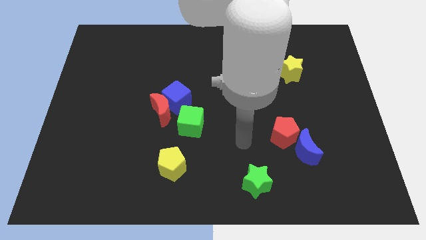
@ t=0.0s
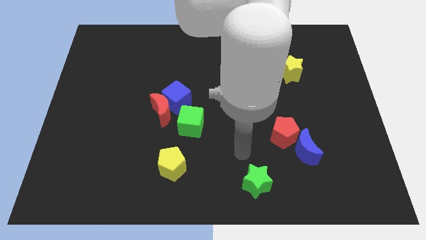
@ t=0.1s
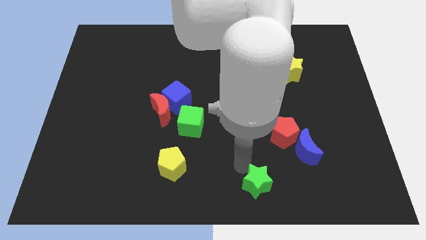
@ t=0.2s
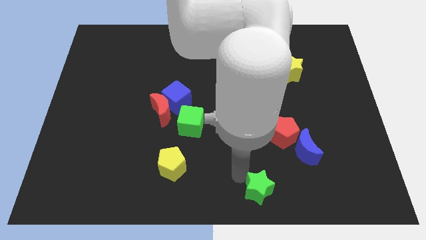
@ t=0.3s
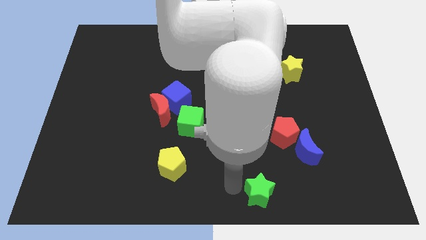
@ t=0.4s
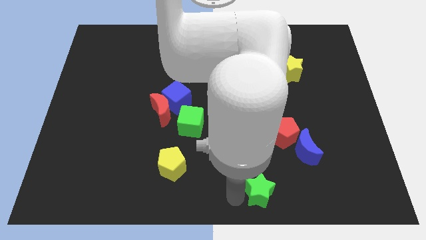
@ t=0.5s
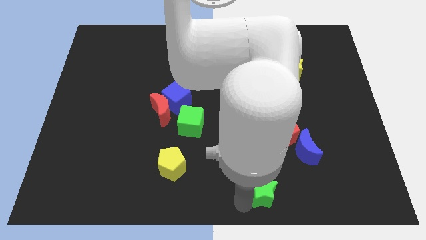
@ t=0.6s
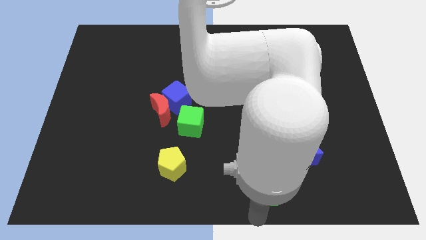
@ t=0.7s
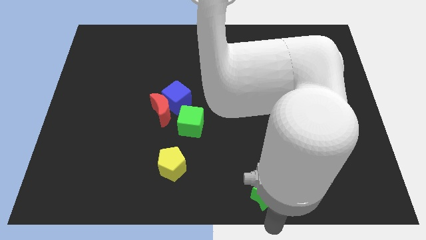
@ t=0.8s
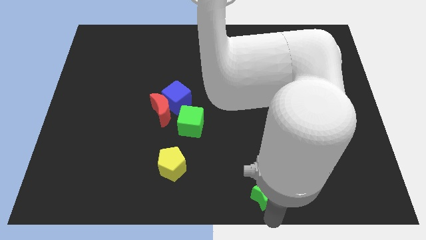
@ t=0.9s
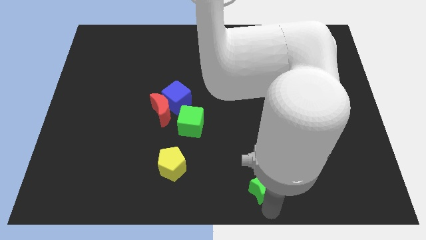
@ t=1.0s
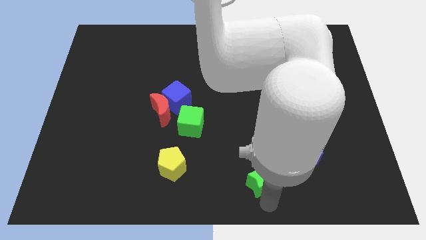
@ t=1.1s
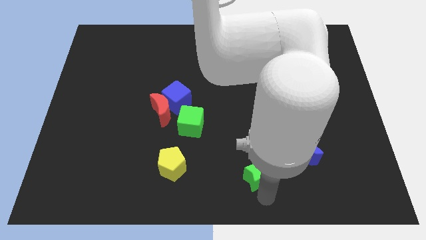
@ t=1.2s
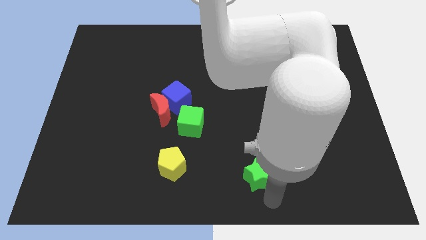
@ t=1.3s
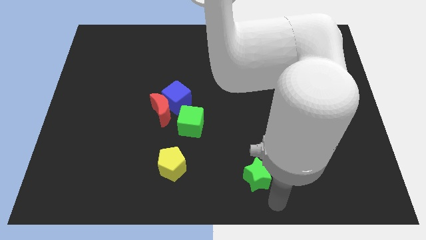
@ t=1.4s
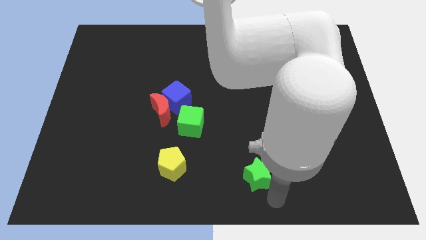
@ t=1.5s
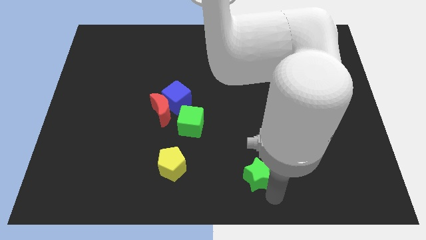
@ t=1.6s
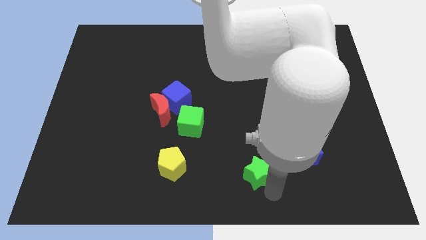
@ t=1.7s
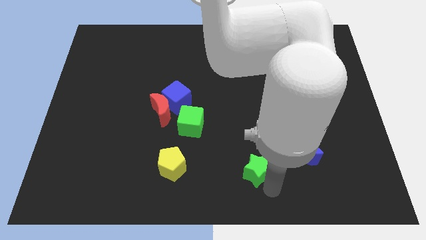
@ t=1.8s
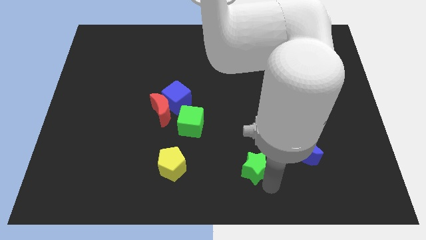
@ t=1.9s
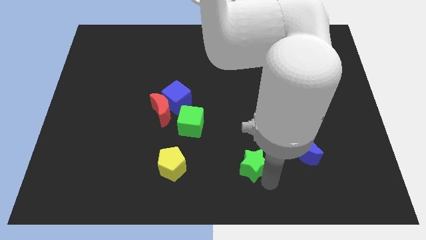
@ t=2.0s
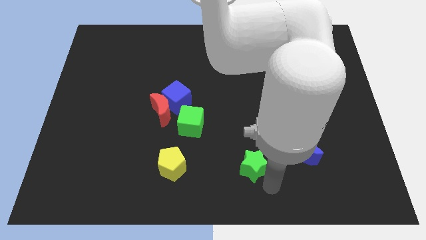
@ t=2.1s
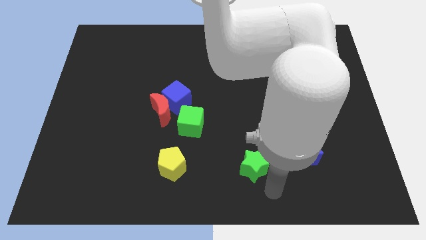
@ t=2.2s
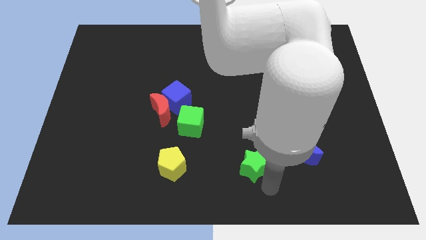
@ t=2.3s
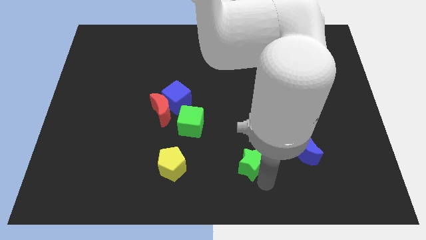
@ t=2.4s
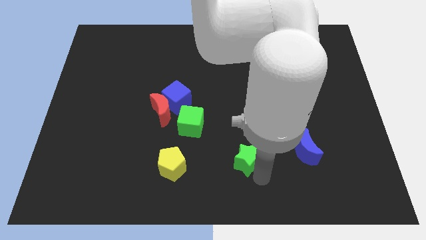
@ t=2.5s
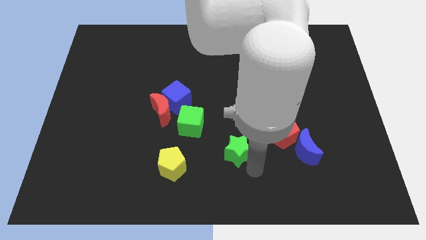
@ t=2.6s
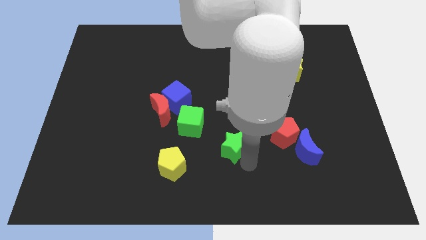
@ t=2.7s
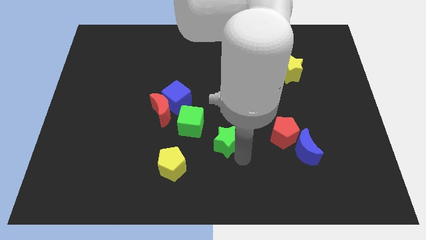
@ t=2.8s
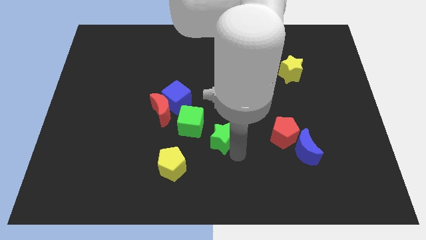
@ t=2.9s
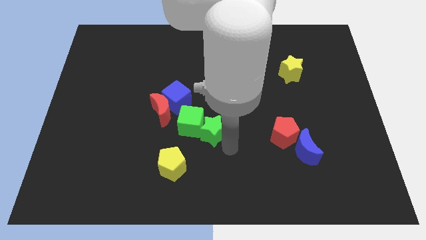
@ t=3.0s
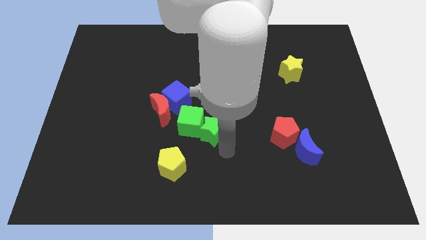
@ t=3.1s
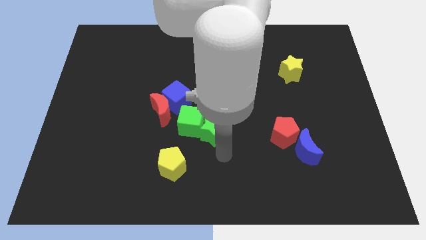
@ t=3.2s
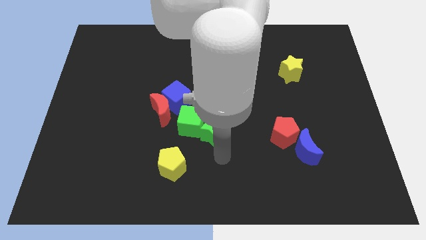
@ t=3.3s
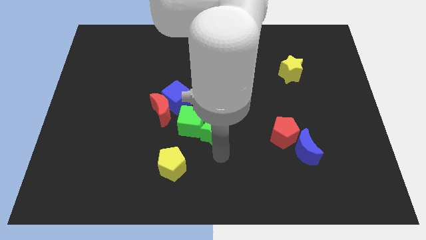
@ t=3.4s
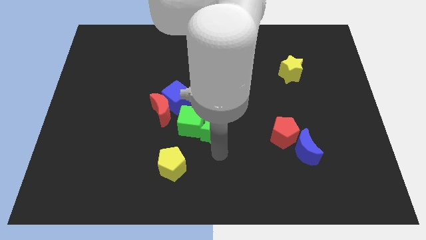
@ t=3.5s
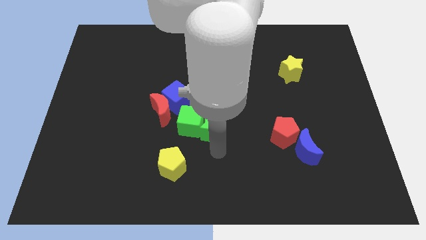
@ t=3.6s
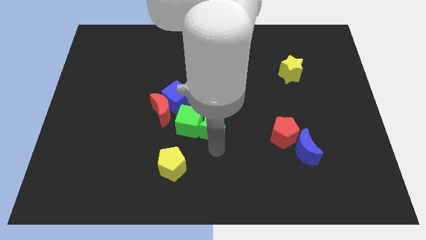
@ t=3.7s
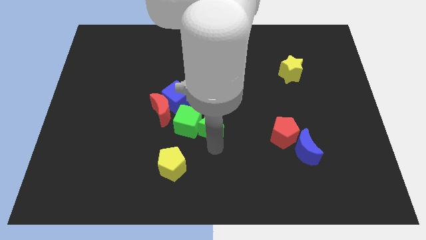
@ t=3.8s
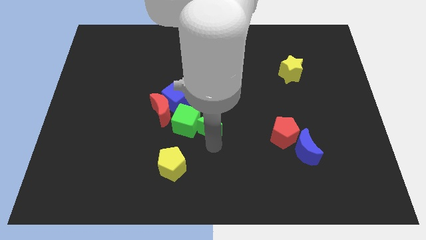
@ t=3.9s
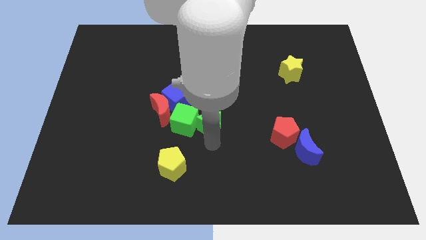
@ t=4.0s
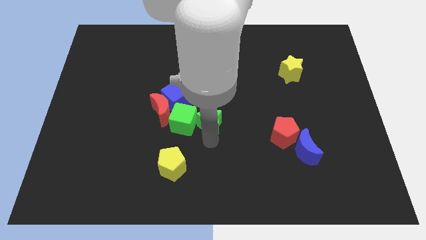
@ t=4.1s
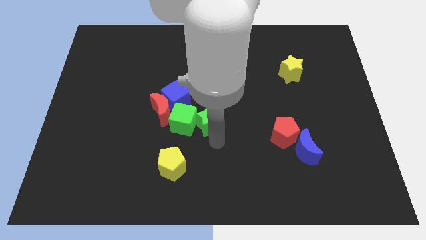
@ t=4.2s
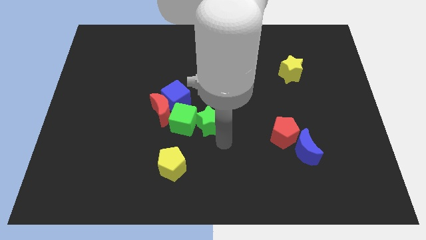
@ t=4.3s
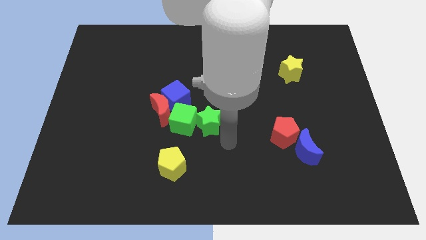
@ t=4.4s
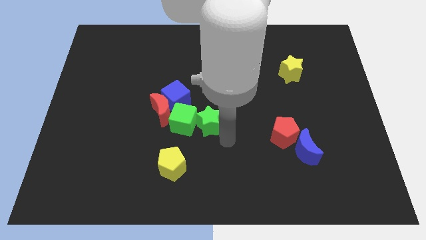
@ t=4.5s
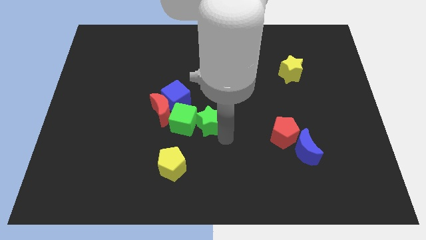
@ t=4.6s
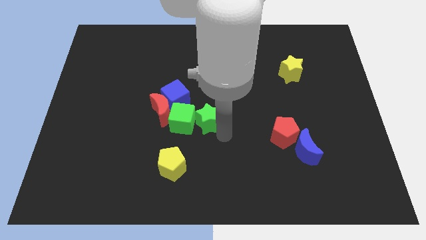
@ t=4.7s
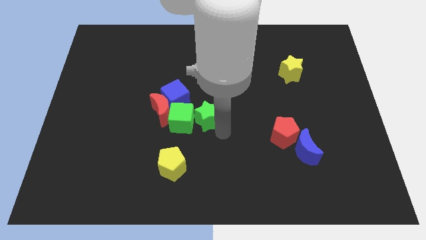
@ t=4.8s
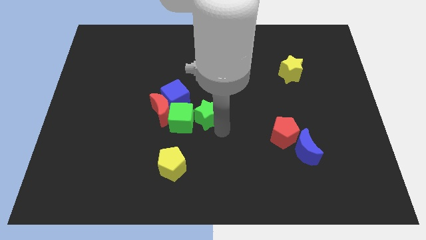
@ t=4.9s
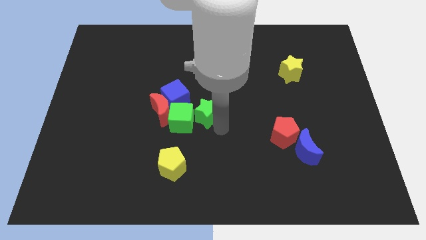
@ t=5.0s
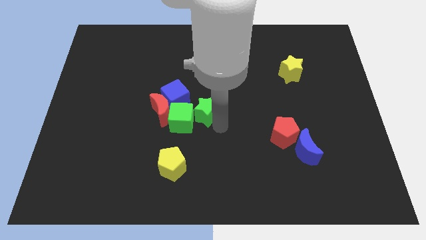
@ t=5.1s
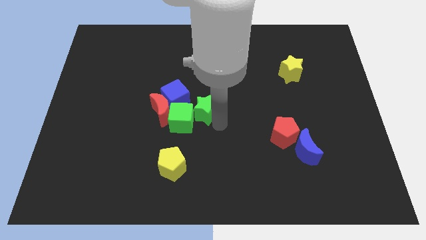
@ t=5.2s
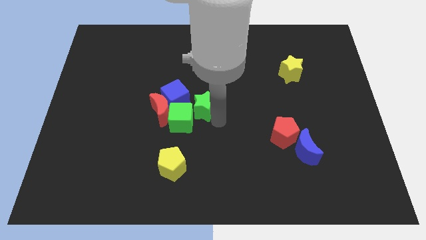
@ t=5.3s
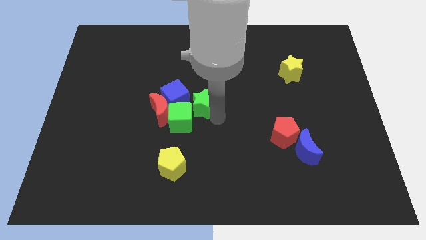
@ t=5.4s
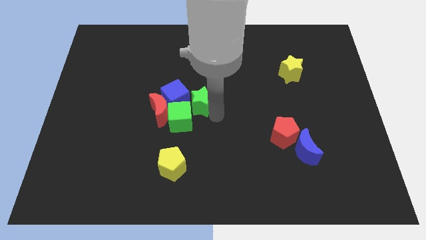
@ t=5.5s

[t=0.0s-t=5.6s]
put the green star towards the blue cube

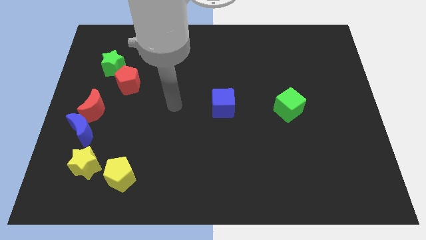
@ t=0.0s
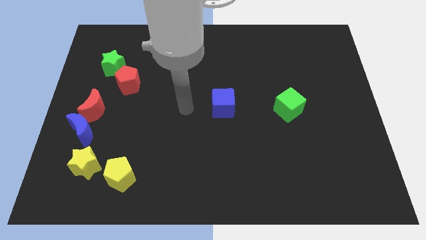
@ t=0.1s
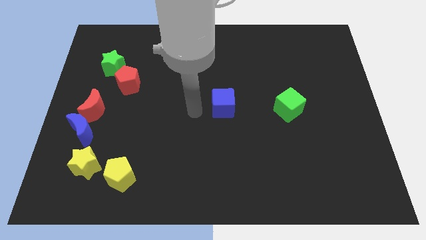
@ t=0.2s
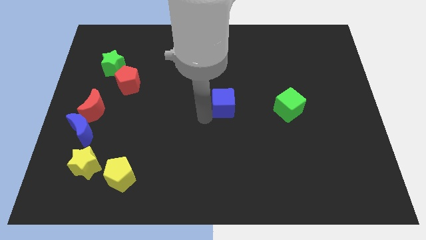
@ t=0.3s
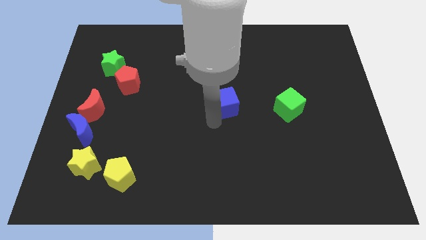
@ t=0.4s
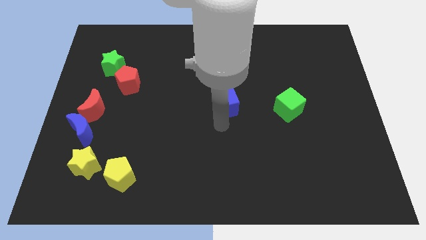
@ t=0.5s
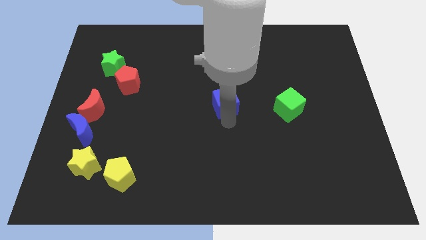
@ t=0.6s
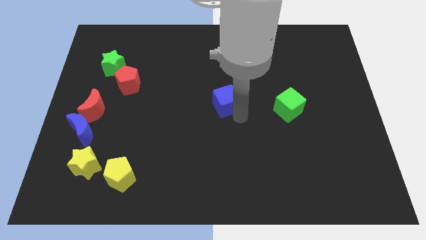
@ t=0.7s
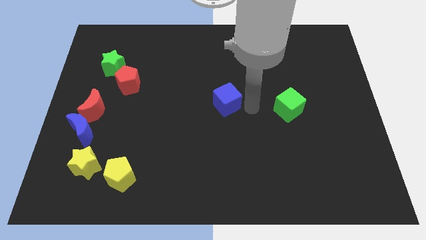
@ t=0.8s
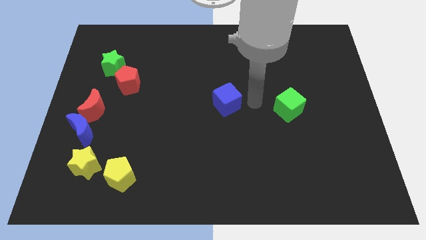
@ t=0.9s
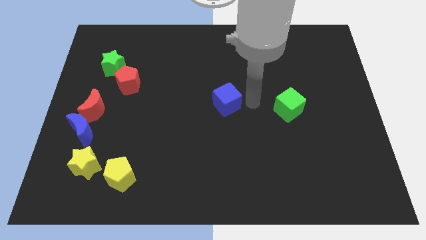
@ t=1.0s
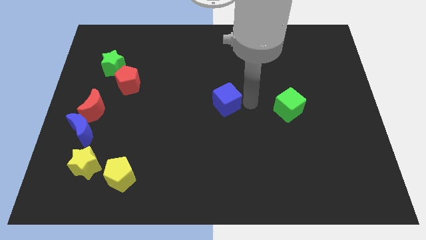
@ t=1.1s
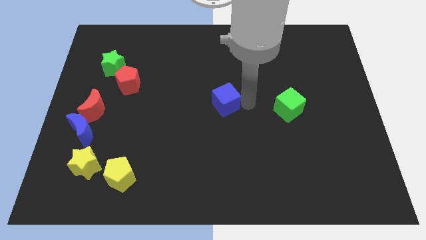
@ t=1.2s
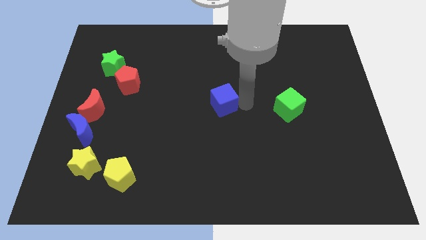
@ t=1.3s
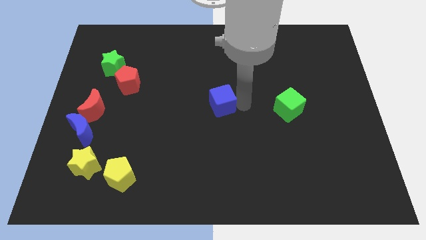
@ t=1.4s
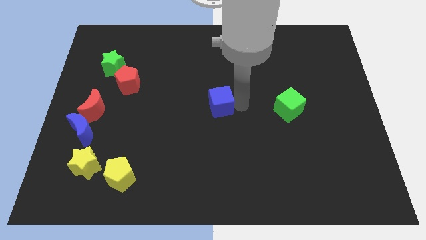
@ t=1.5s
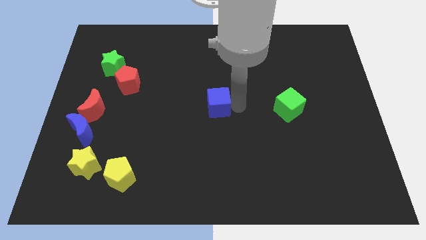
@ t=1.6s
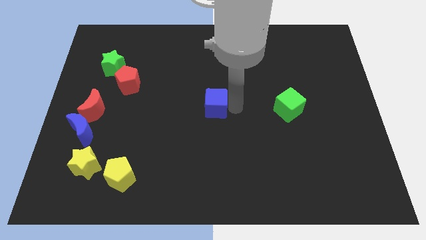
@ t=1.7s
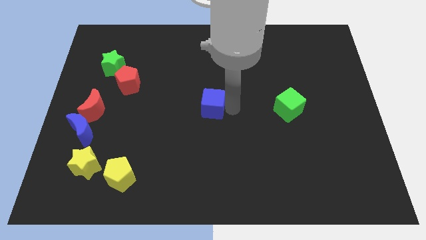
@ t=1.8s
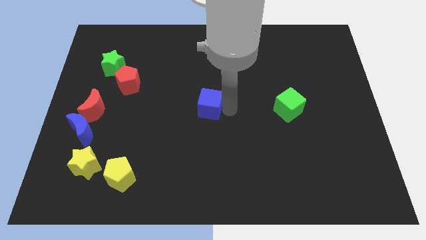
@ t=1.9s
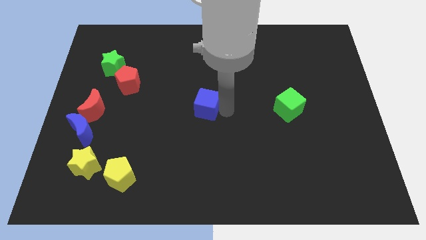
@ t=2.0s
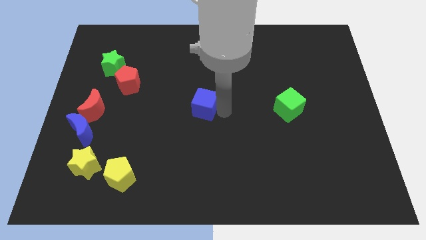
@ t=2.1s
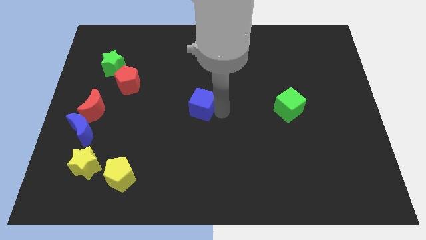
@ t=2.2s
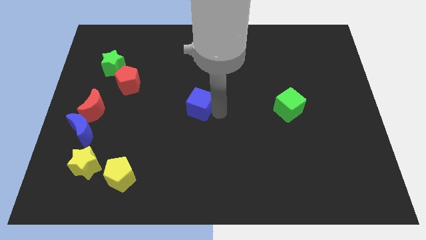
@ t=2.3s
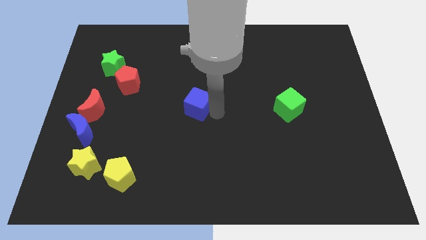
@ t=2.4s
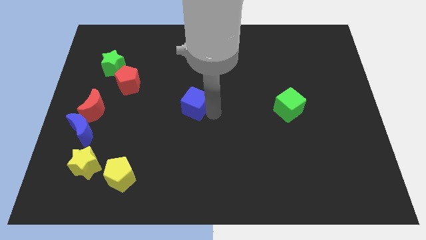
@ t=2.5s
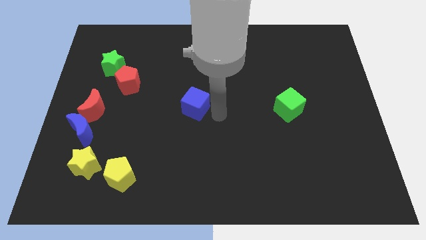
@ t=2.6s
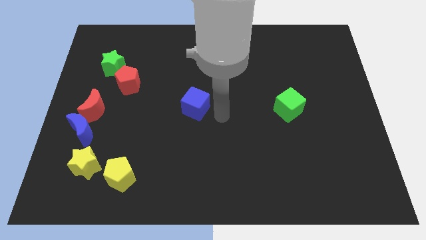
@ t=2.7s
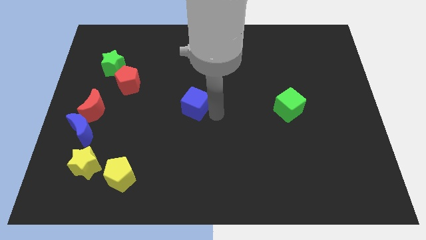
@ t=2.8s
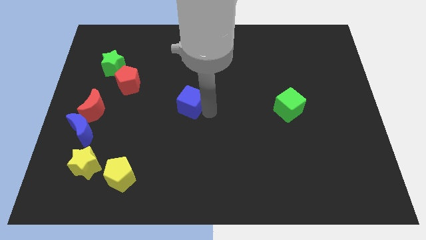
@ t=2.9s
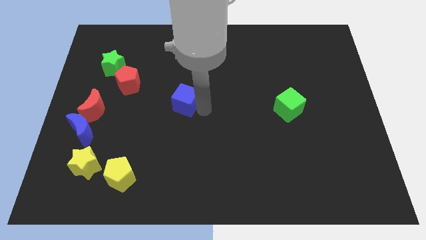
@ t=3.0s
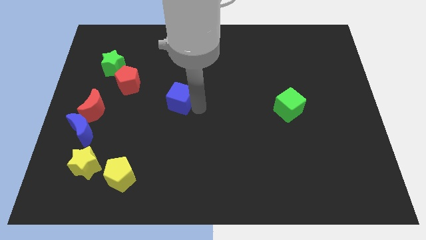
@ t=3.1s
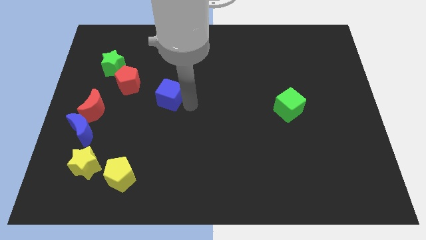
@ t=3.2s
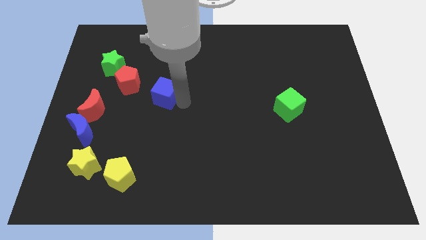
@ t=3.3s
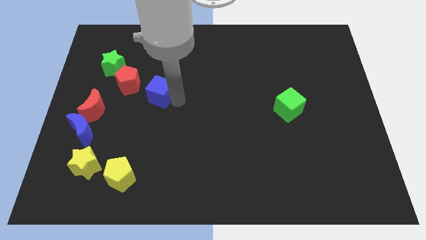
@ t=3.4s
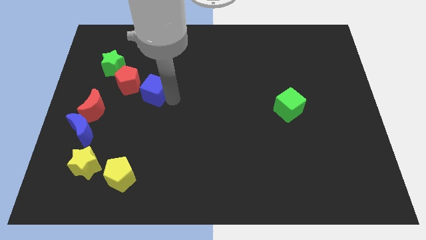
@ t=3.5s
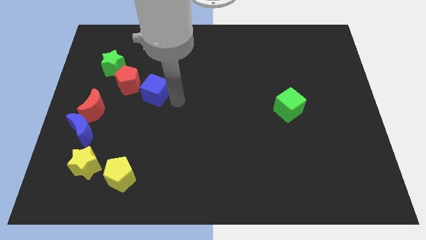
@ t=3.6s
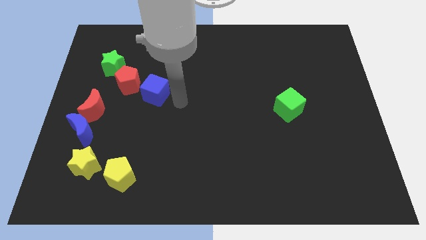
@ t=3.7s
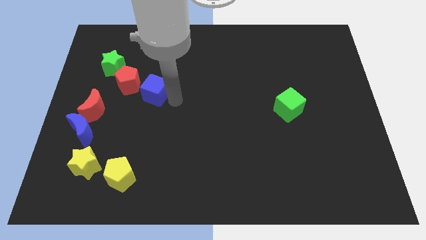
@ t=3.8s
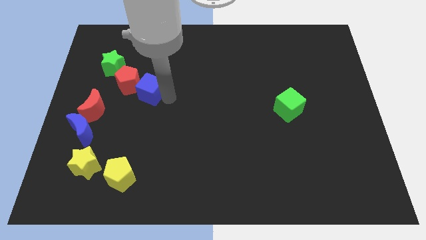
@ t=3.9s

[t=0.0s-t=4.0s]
push the blue cube close to the red pentagon
